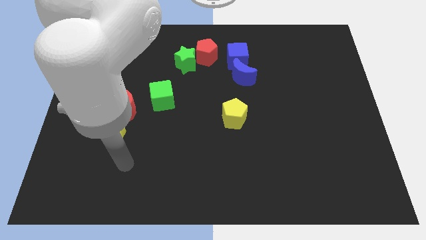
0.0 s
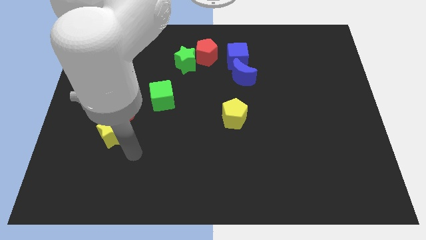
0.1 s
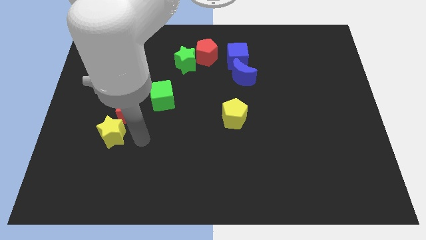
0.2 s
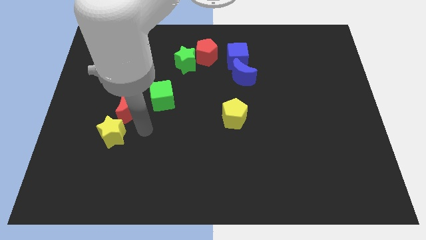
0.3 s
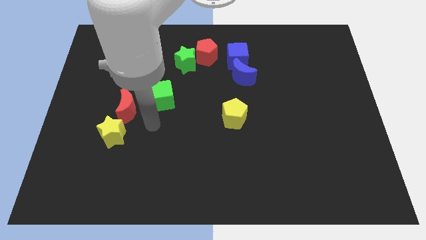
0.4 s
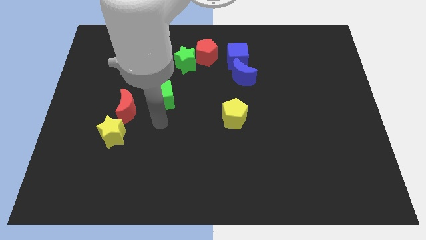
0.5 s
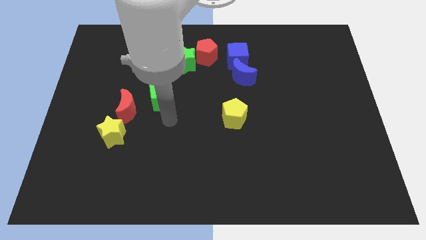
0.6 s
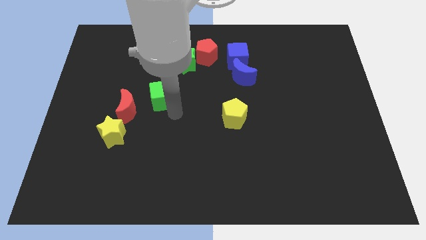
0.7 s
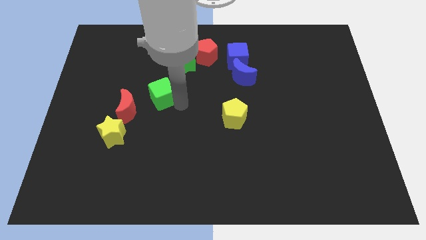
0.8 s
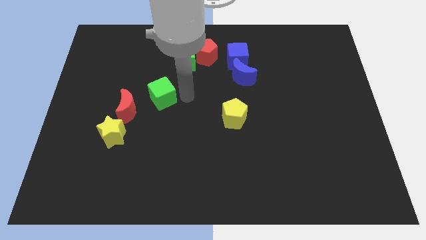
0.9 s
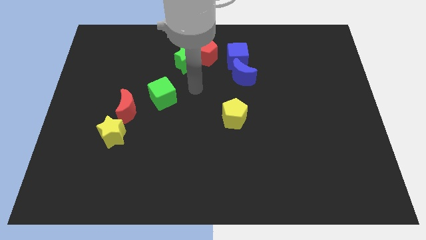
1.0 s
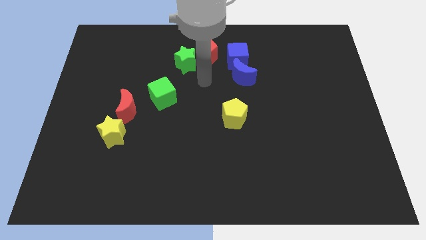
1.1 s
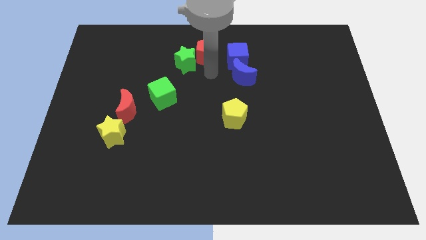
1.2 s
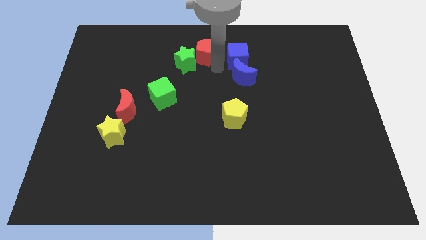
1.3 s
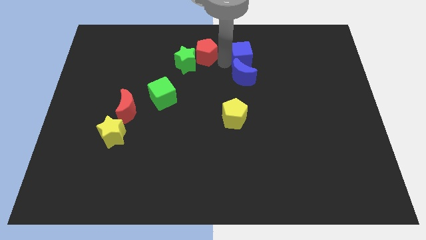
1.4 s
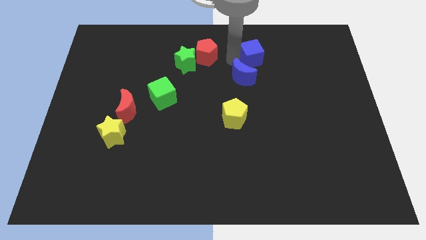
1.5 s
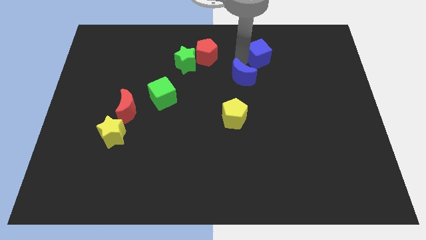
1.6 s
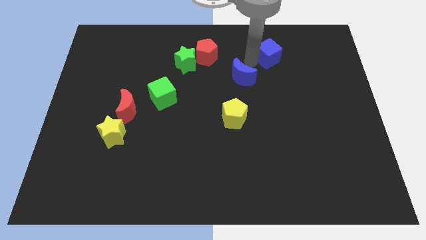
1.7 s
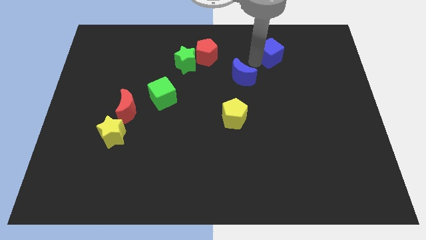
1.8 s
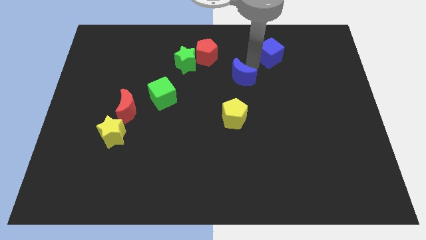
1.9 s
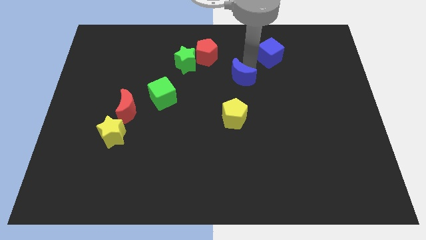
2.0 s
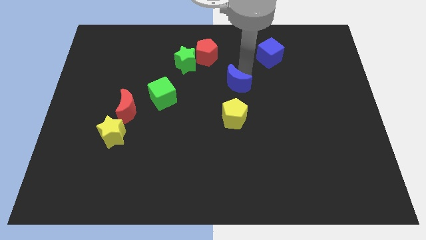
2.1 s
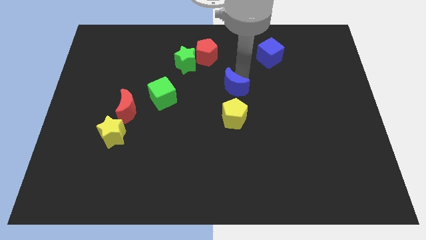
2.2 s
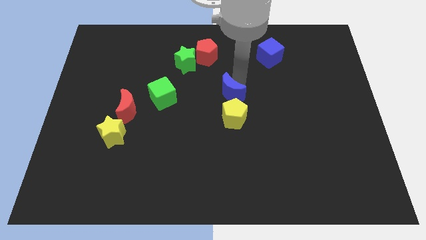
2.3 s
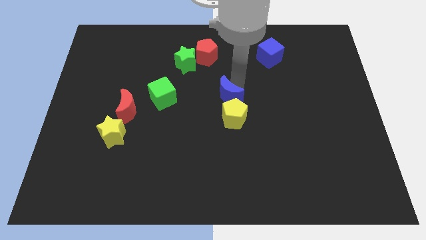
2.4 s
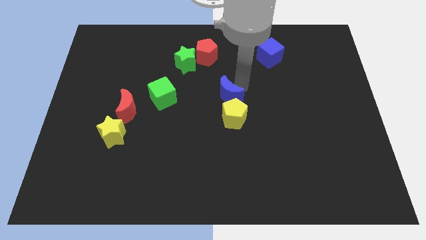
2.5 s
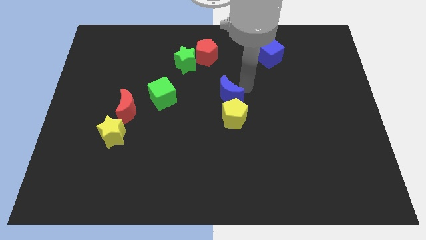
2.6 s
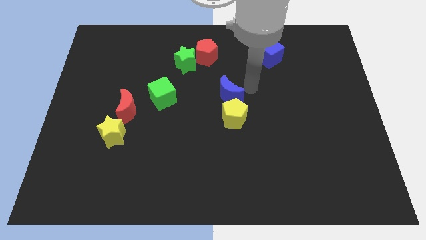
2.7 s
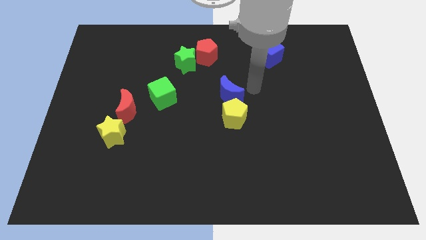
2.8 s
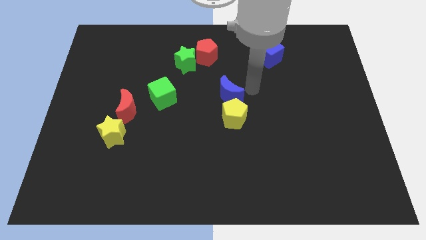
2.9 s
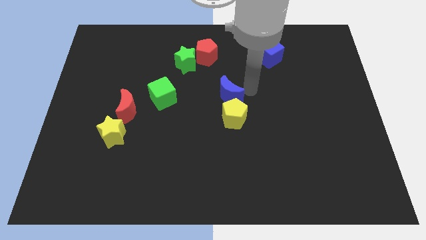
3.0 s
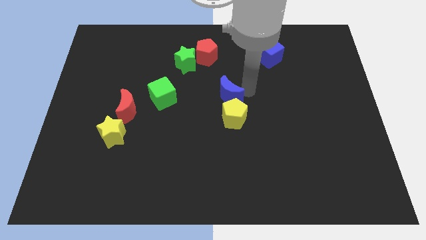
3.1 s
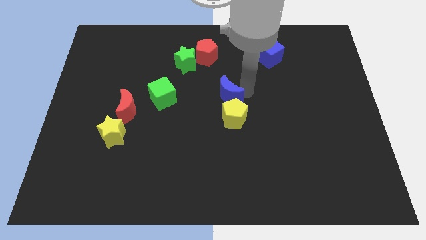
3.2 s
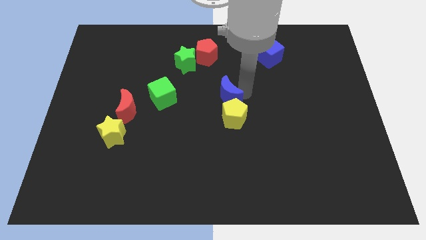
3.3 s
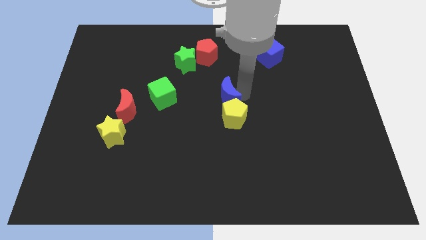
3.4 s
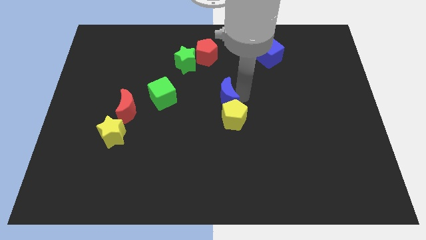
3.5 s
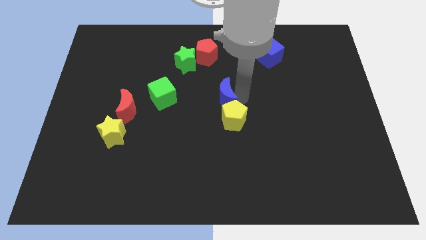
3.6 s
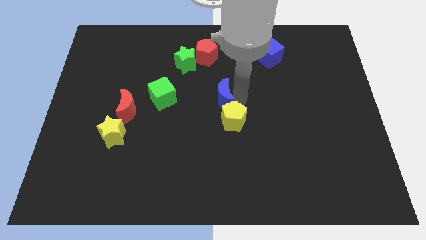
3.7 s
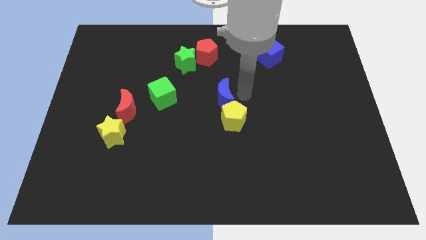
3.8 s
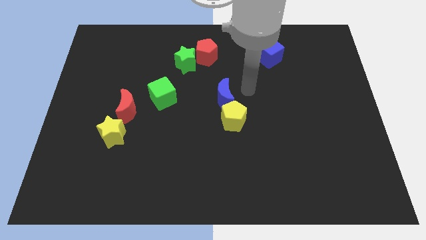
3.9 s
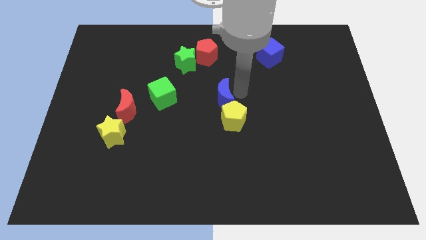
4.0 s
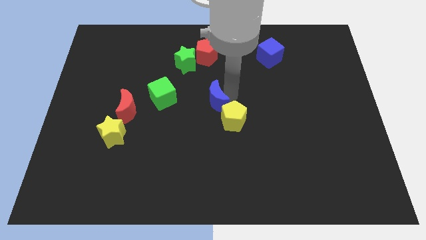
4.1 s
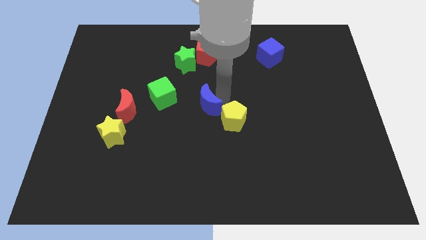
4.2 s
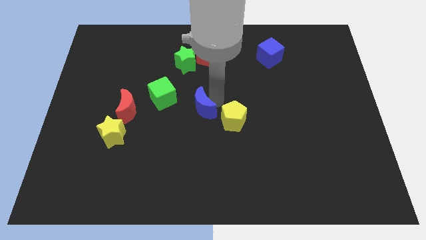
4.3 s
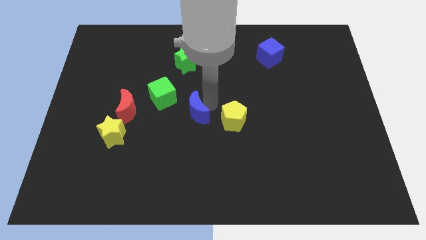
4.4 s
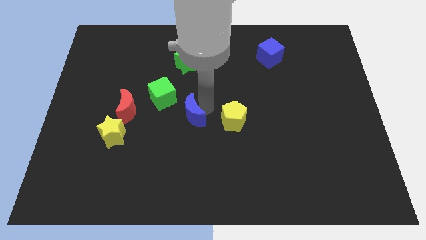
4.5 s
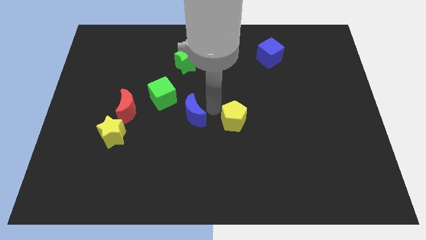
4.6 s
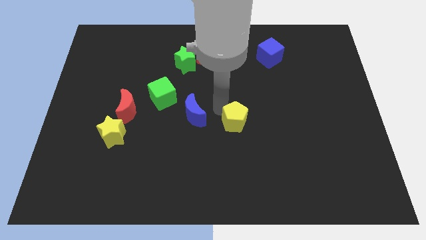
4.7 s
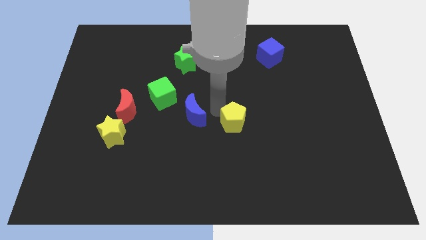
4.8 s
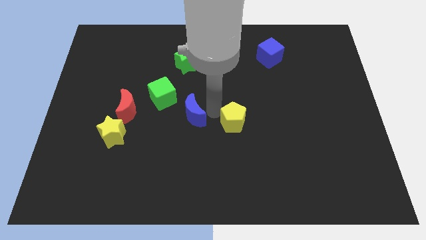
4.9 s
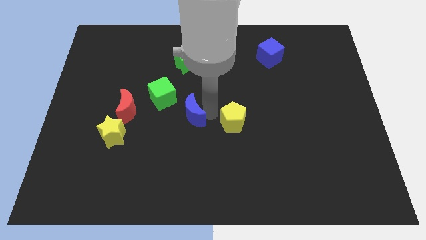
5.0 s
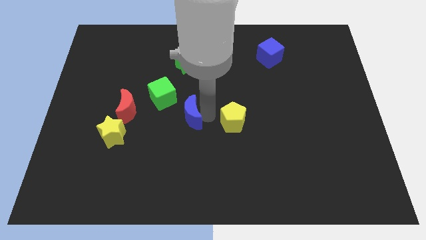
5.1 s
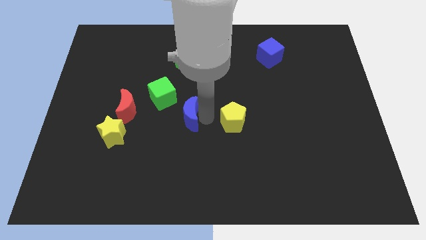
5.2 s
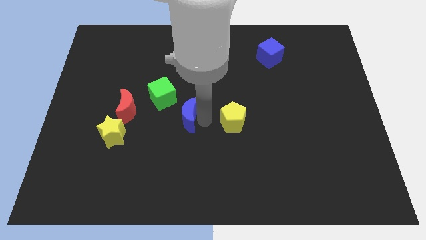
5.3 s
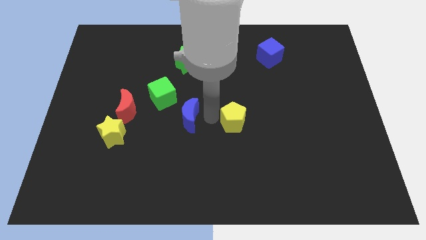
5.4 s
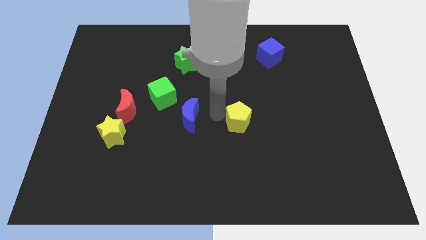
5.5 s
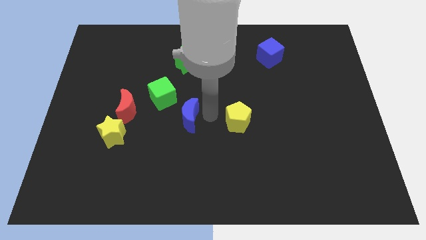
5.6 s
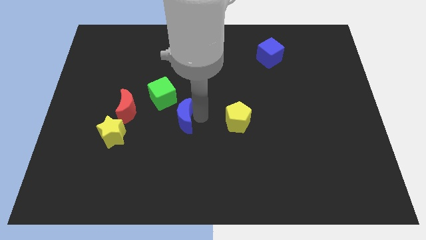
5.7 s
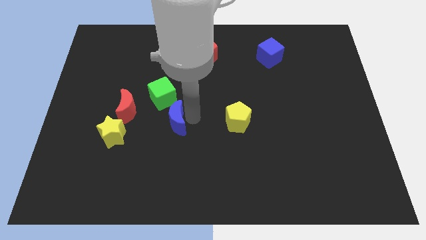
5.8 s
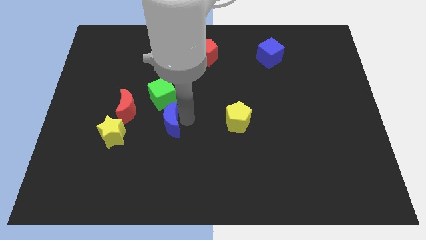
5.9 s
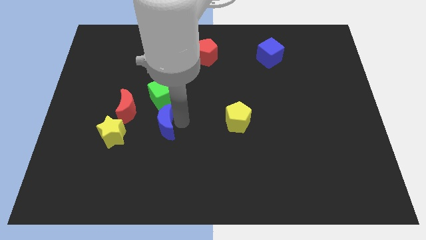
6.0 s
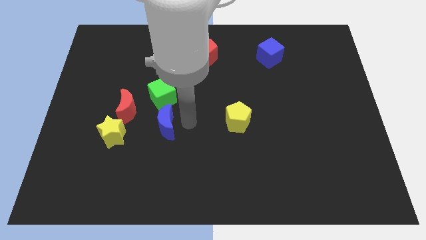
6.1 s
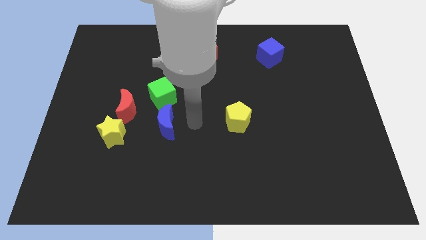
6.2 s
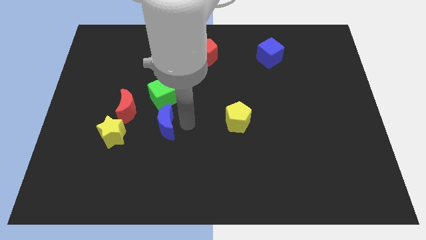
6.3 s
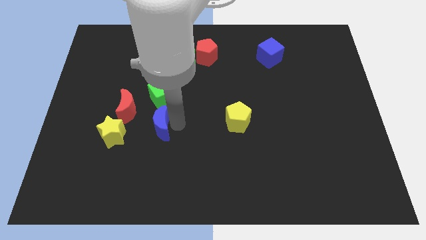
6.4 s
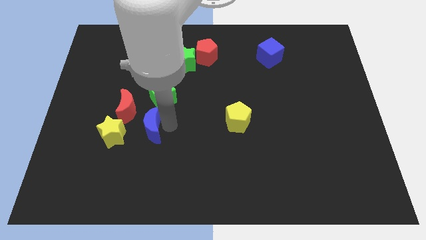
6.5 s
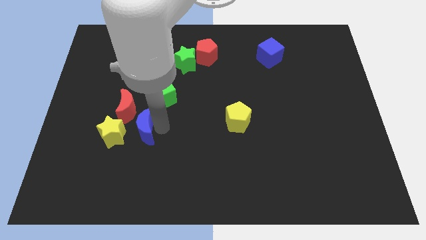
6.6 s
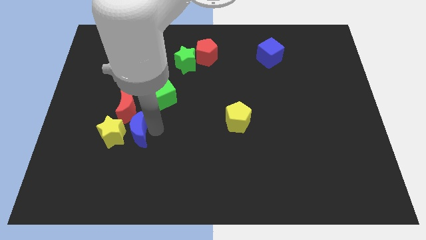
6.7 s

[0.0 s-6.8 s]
slide the blue moon close to the yellow star

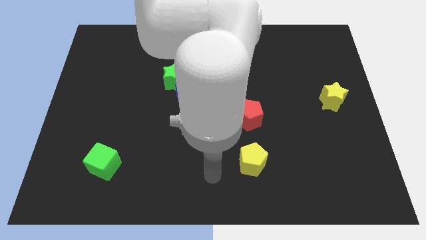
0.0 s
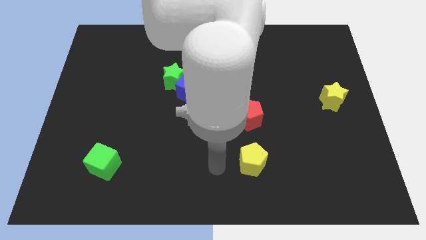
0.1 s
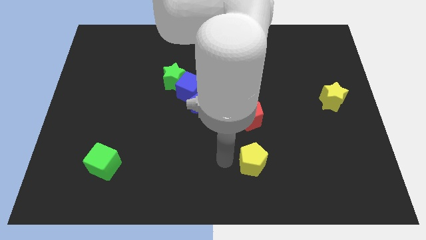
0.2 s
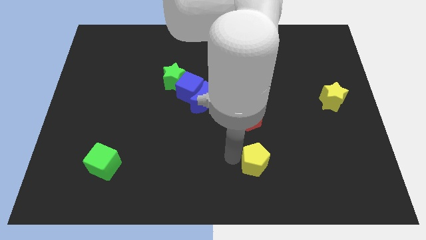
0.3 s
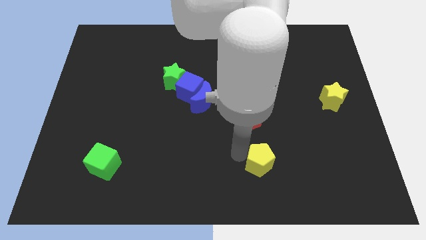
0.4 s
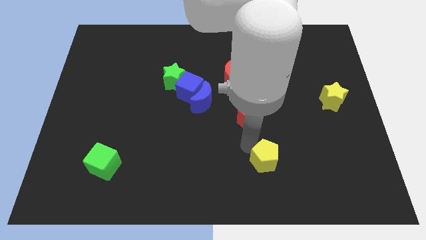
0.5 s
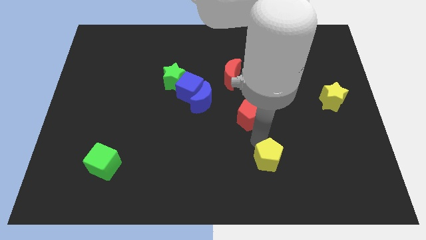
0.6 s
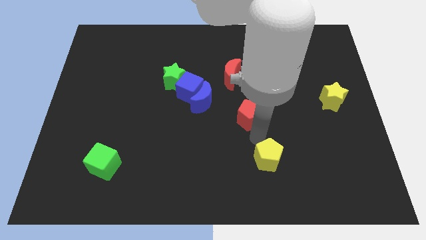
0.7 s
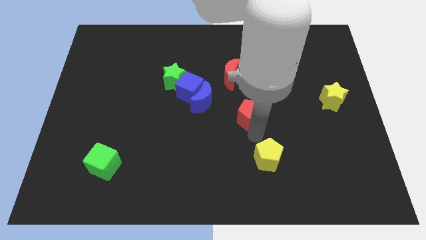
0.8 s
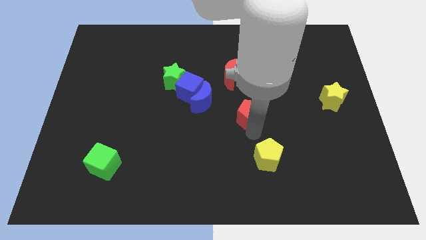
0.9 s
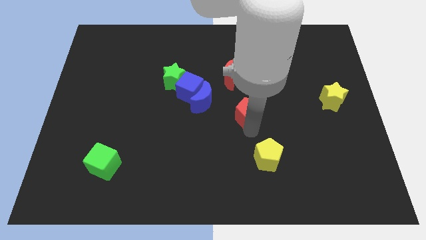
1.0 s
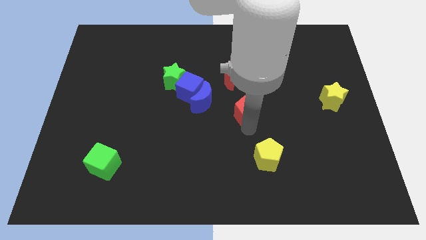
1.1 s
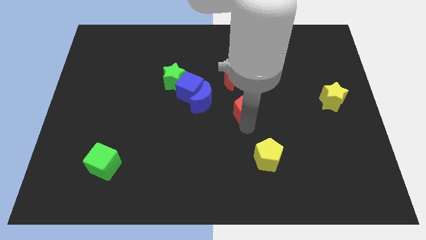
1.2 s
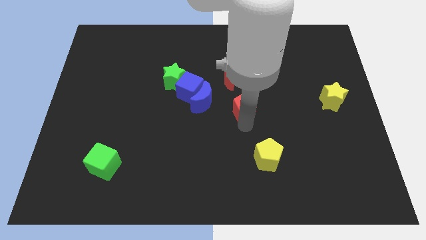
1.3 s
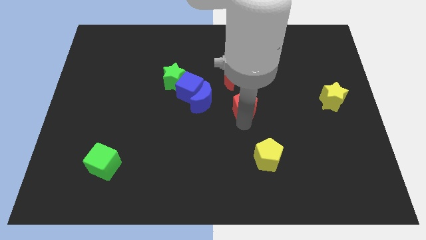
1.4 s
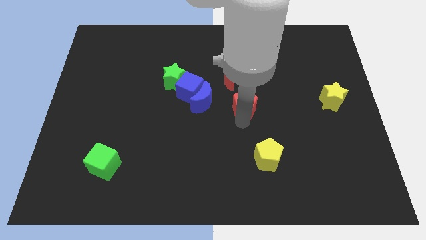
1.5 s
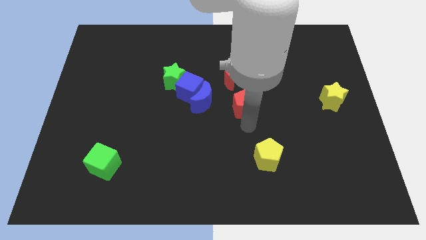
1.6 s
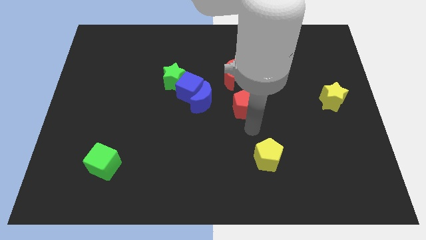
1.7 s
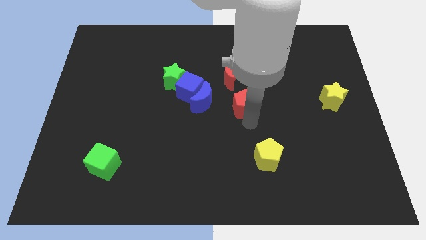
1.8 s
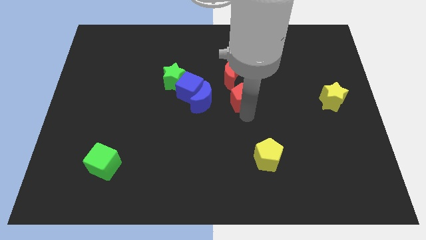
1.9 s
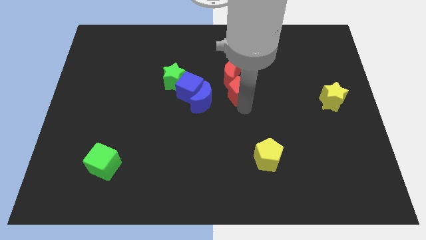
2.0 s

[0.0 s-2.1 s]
move the red pentagon close to the red moon
